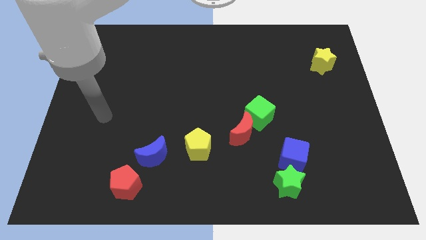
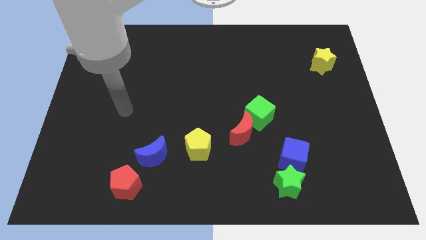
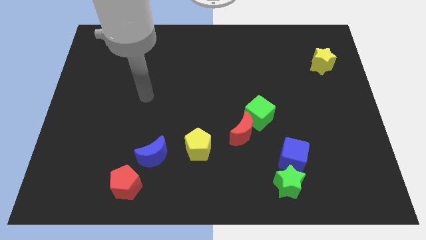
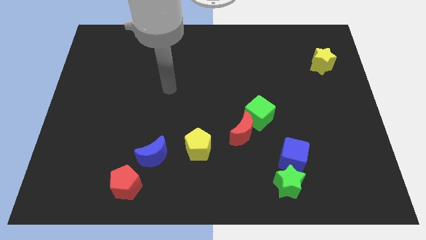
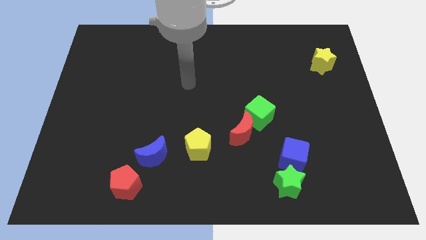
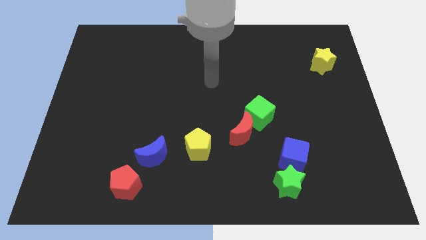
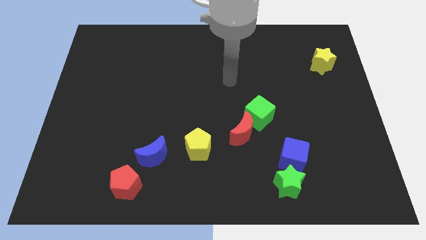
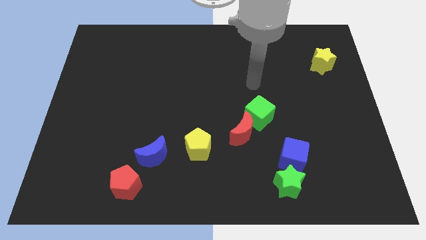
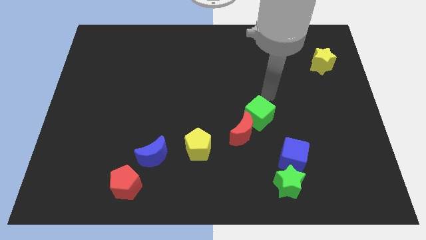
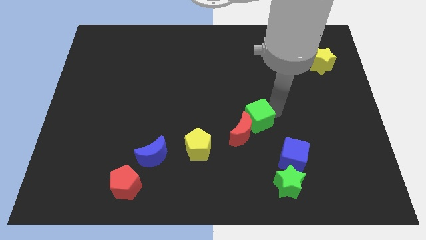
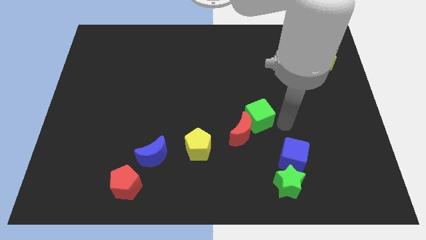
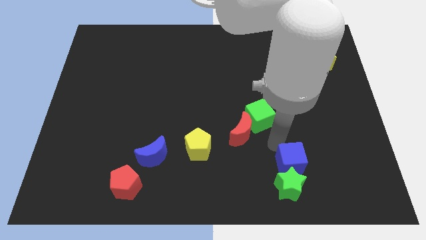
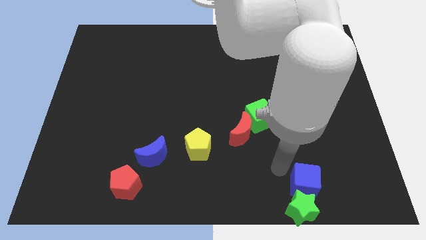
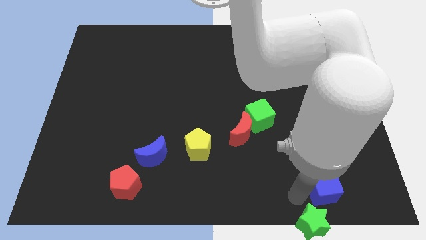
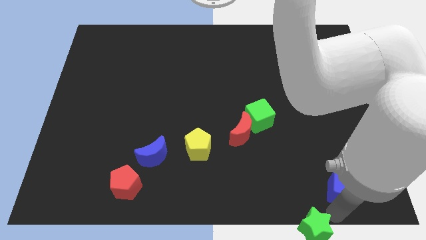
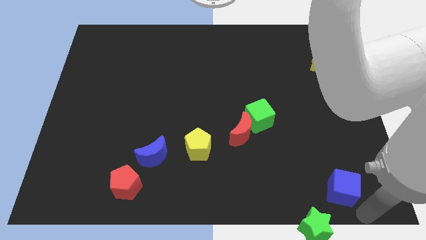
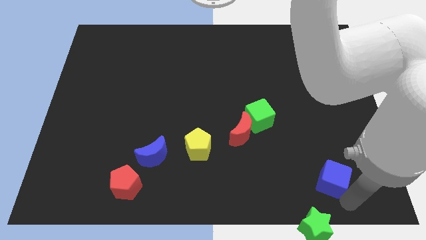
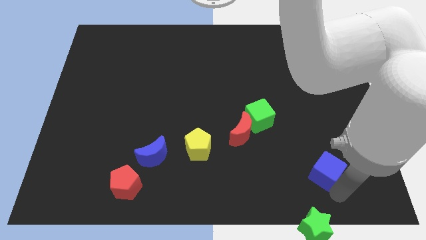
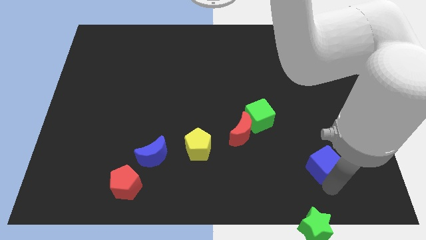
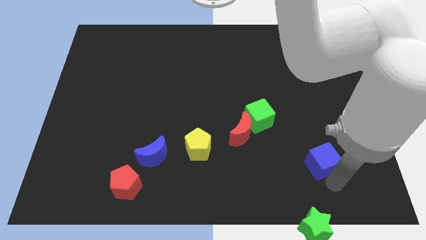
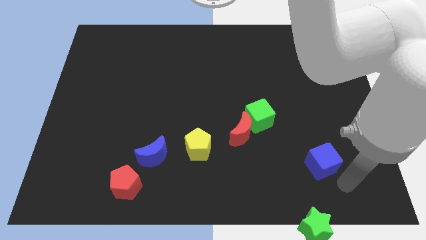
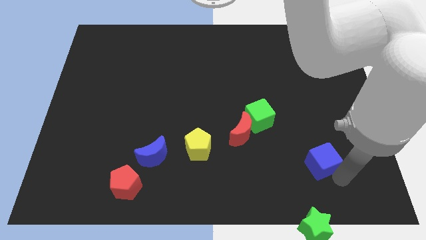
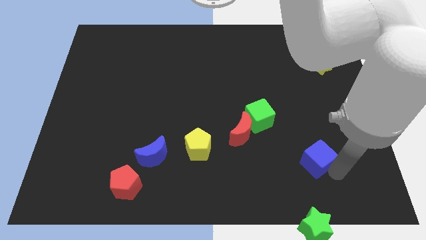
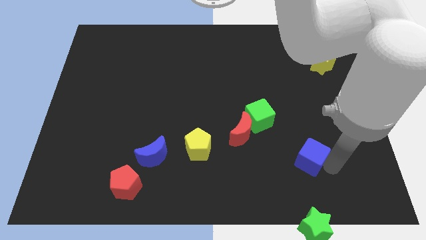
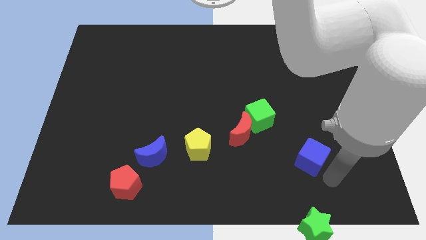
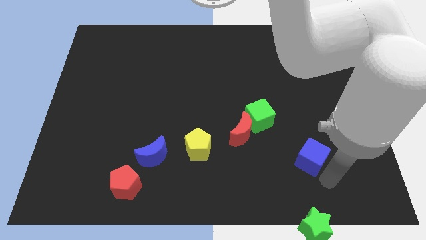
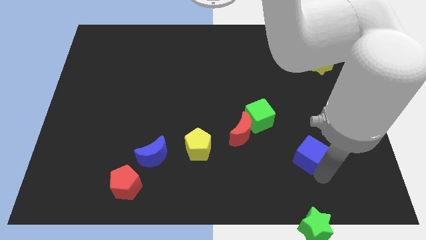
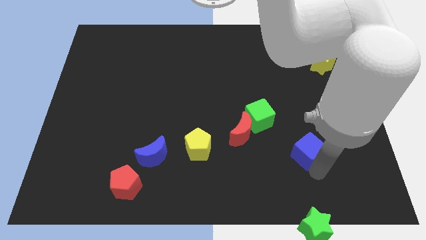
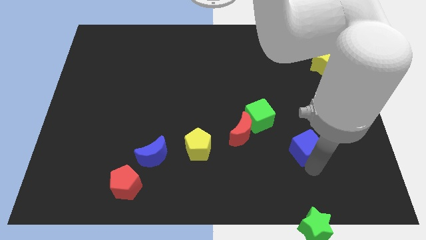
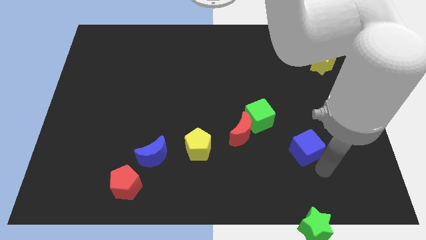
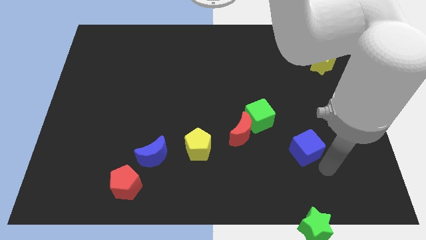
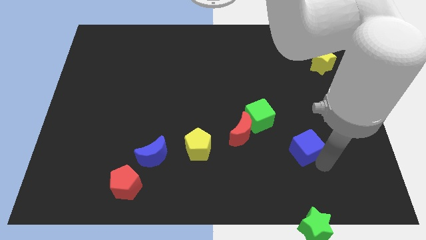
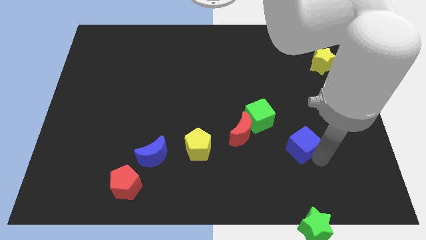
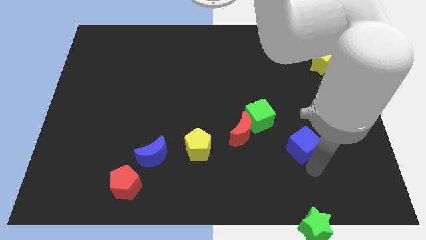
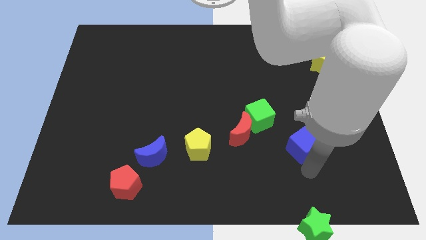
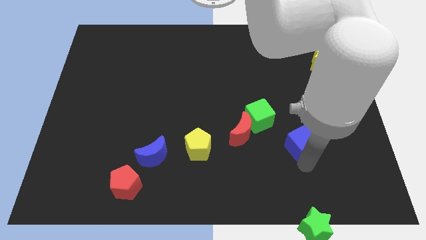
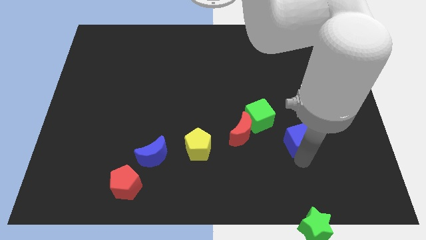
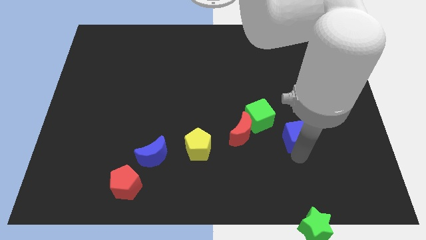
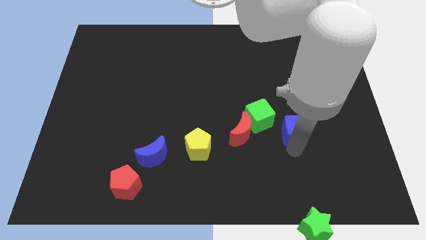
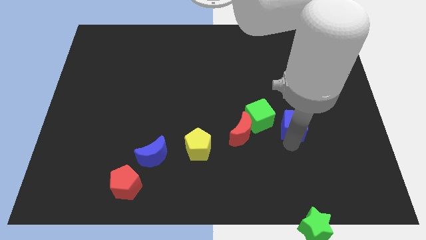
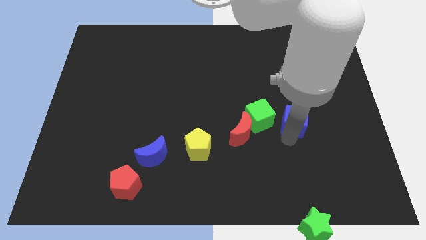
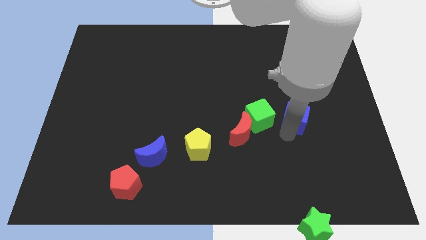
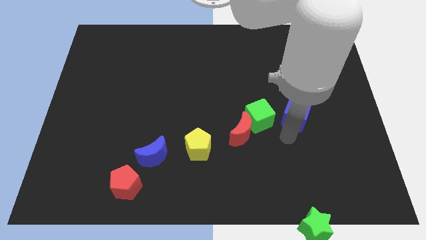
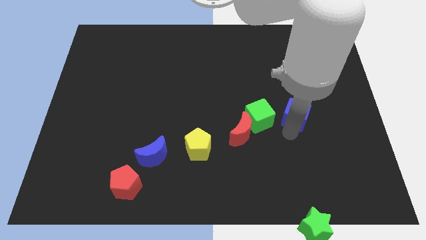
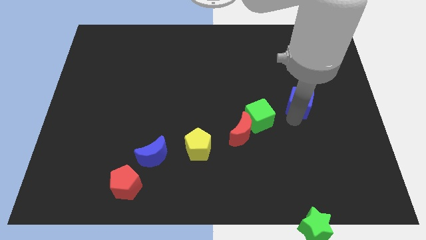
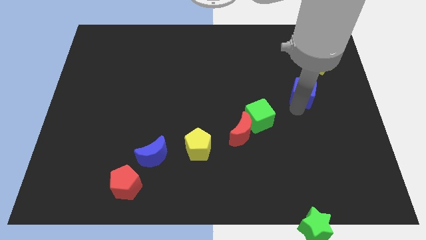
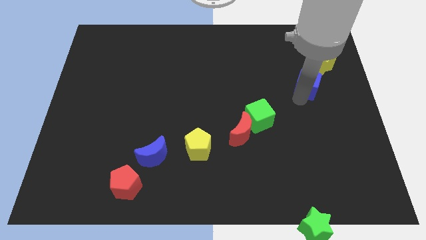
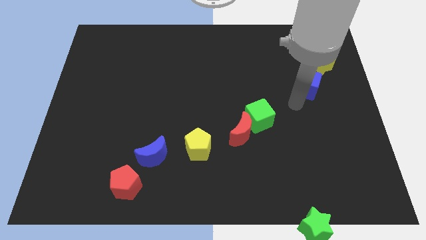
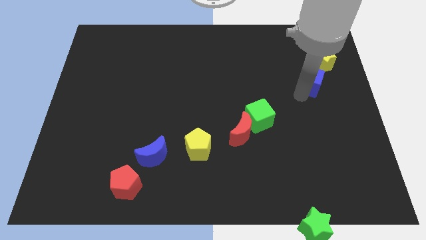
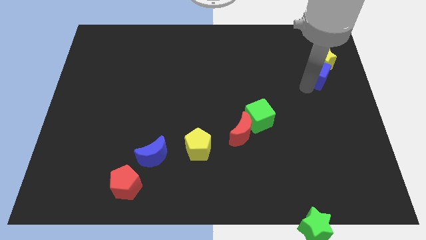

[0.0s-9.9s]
push the blue cube towards the yellow star

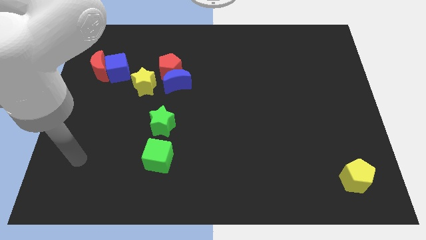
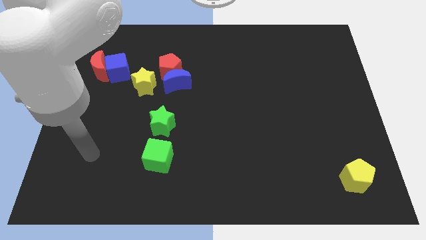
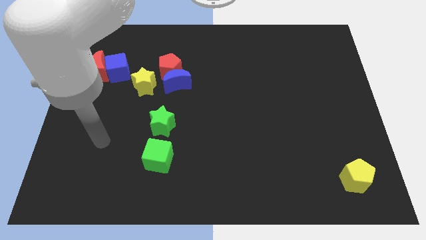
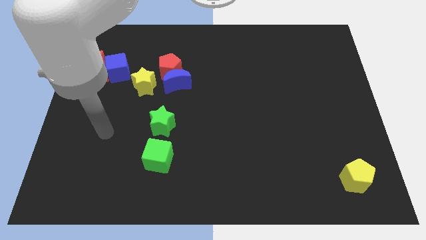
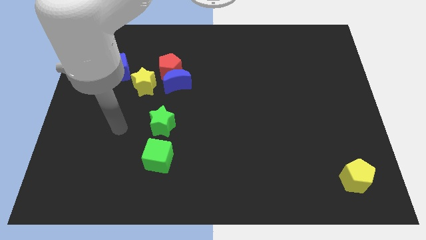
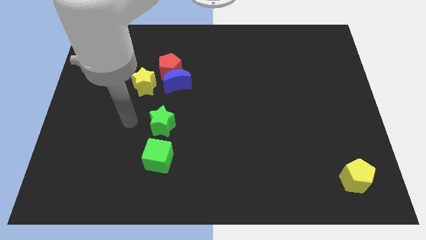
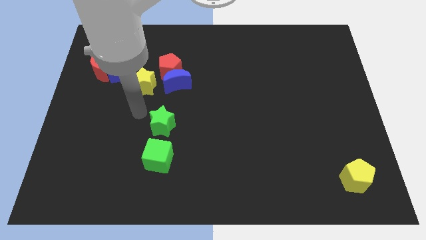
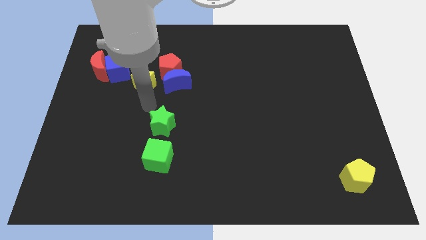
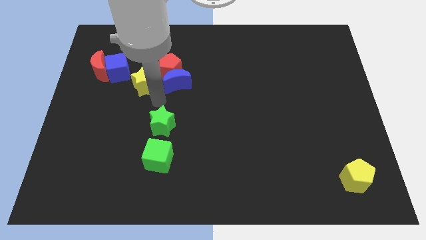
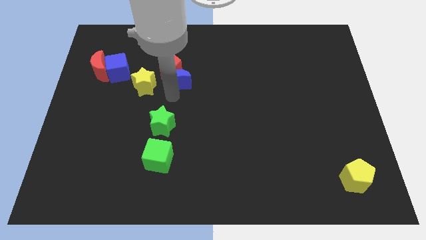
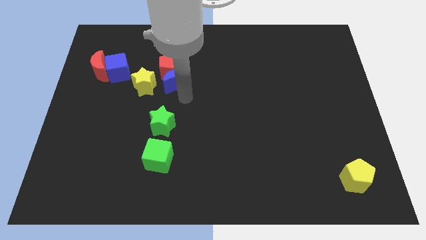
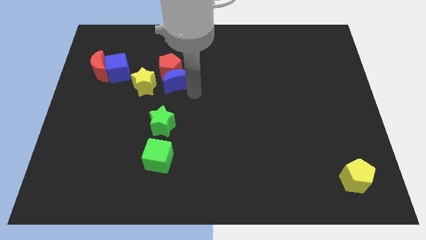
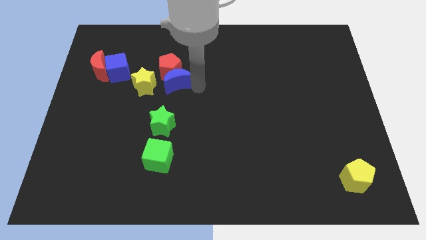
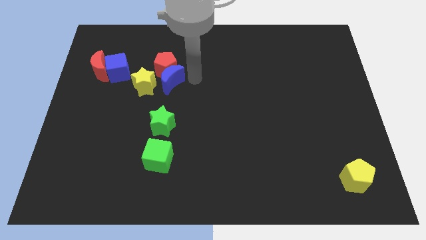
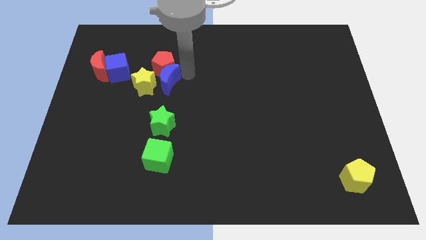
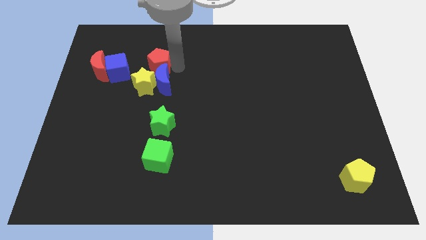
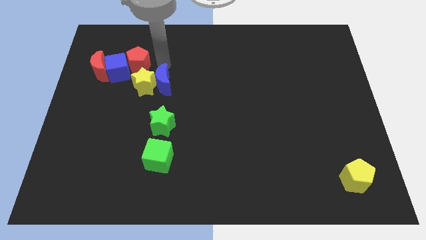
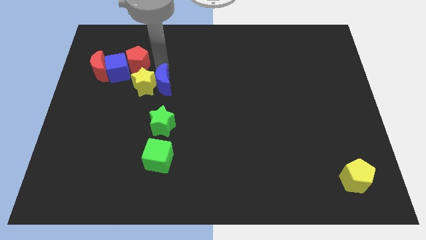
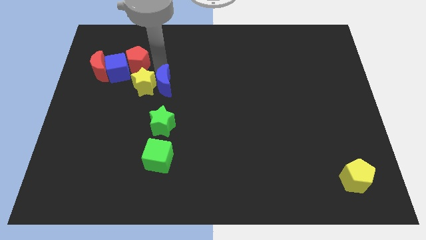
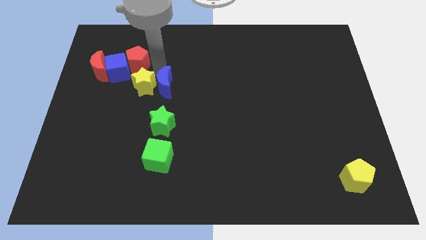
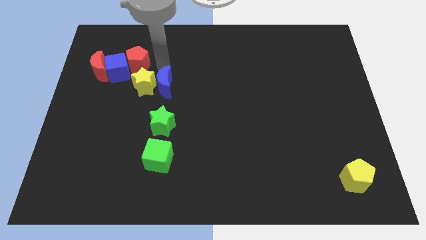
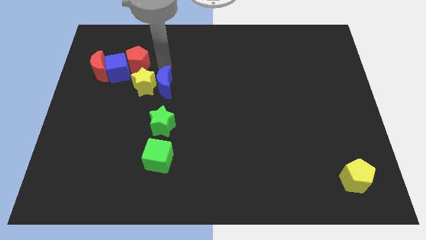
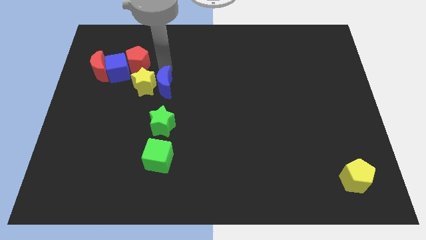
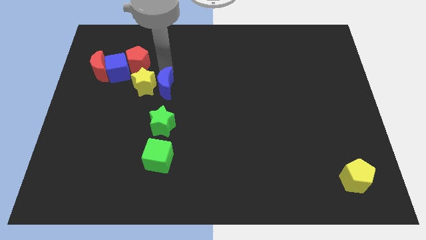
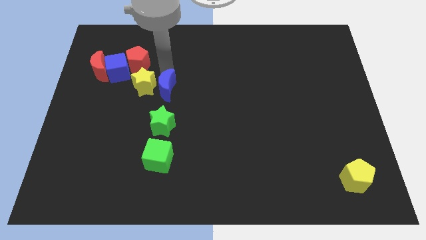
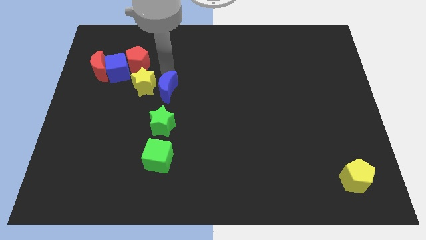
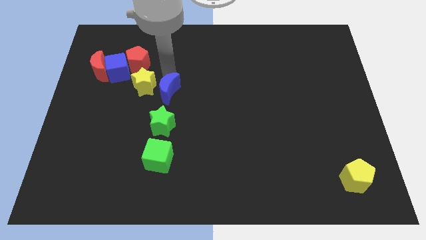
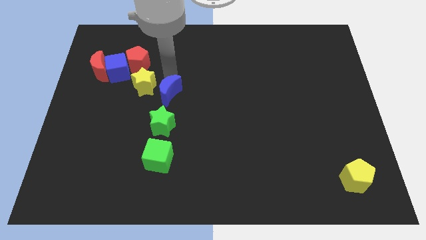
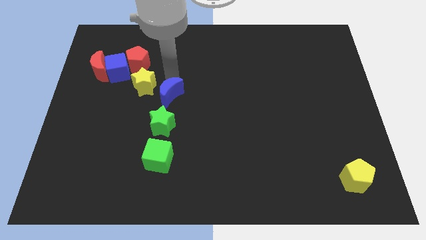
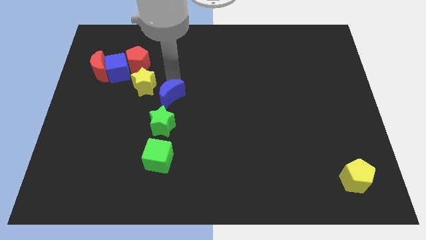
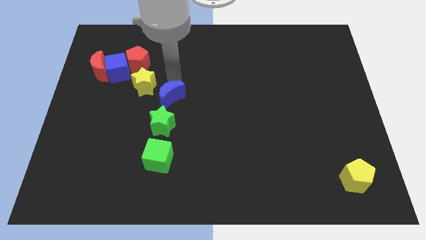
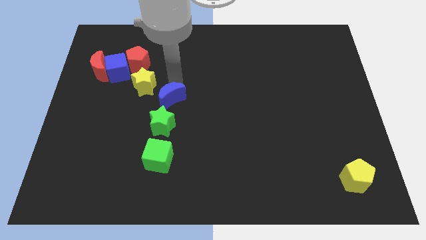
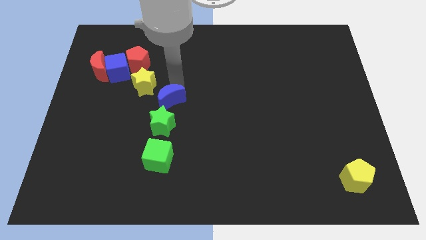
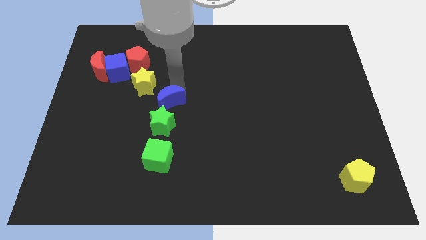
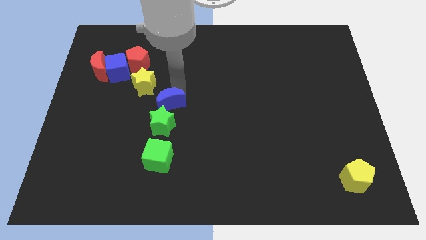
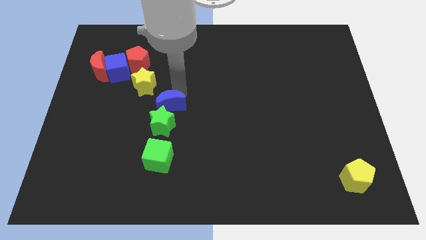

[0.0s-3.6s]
put the blue moon to the green star
